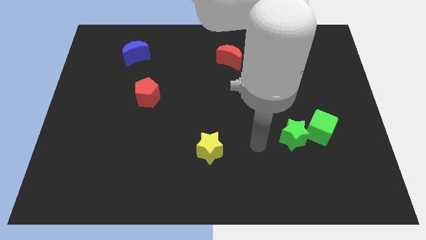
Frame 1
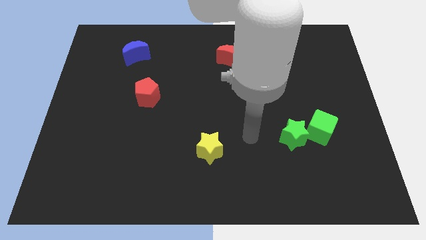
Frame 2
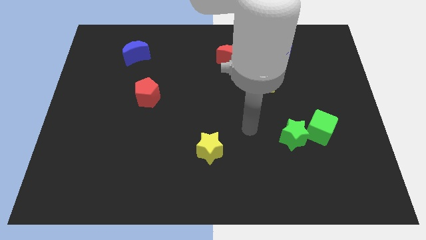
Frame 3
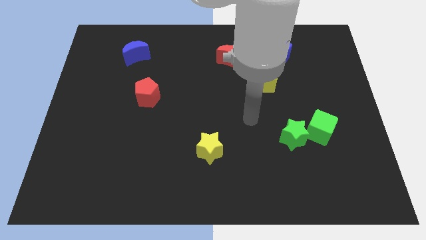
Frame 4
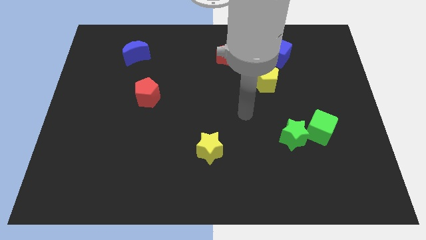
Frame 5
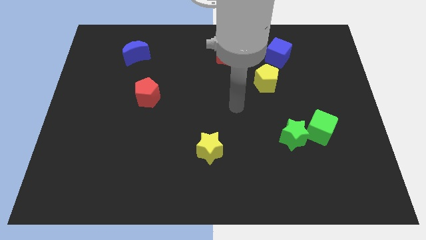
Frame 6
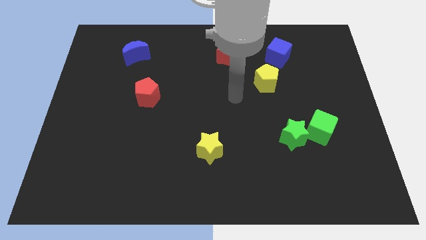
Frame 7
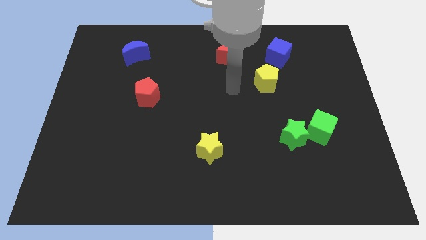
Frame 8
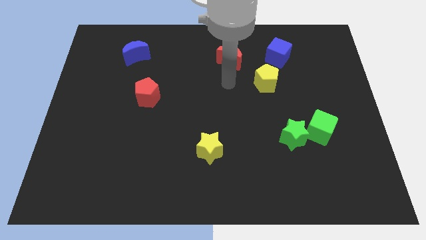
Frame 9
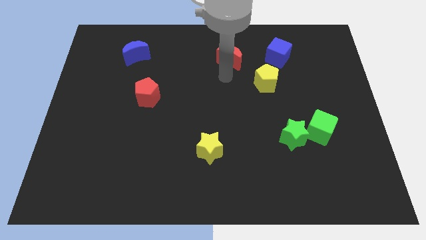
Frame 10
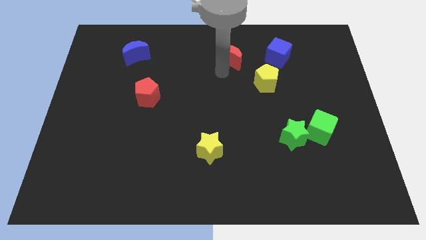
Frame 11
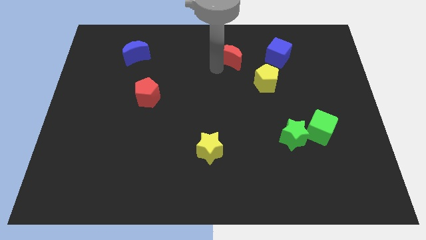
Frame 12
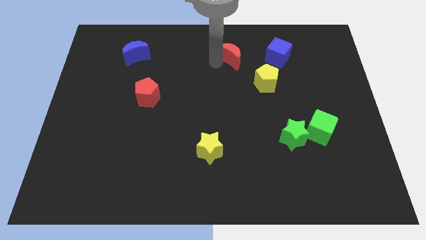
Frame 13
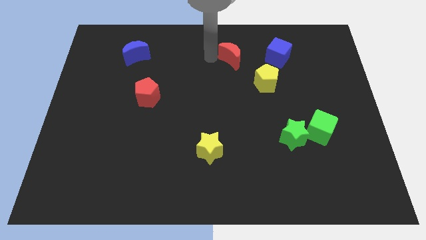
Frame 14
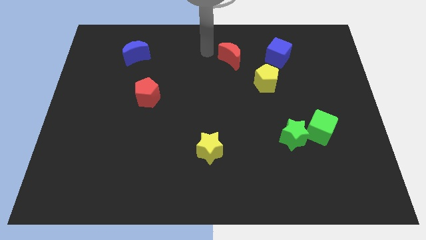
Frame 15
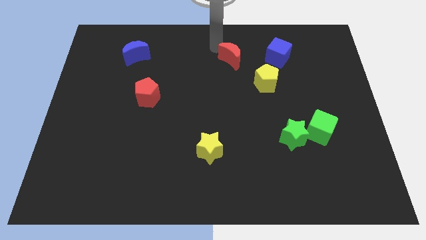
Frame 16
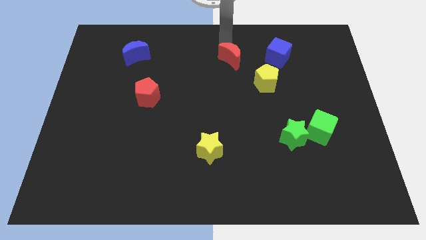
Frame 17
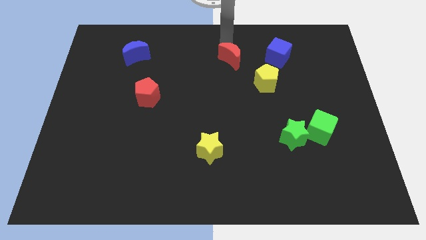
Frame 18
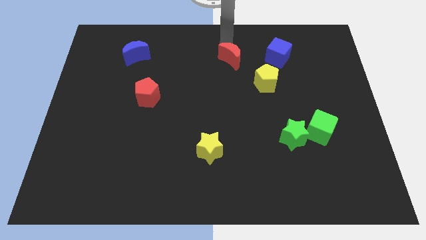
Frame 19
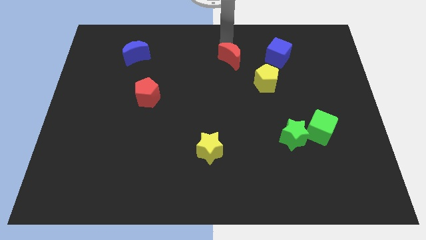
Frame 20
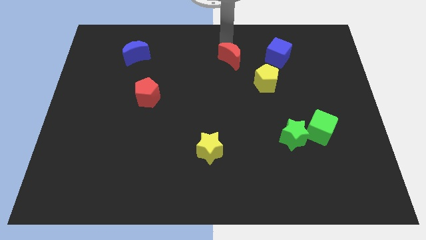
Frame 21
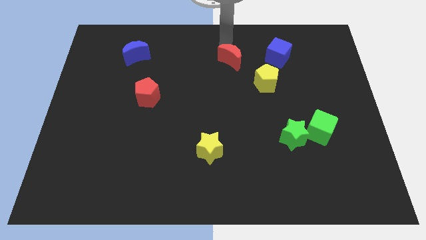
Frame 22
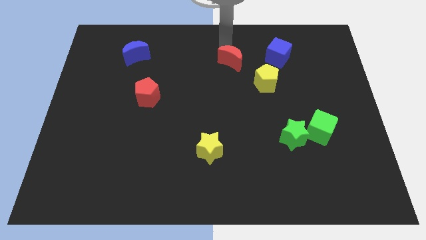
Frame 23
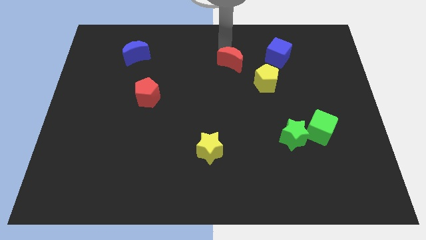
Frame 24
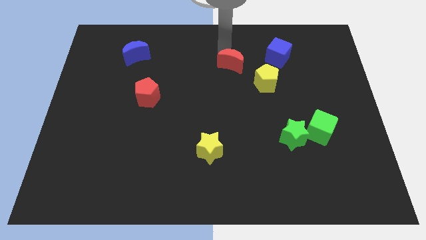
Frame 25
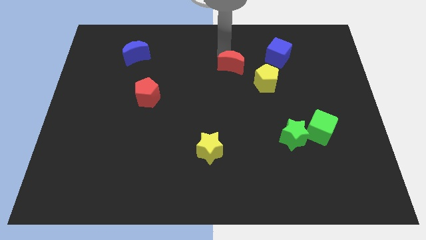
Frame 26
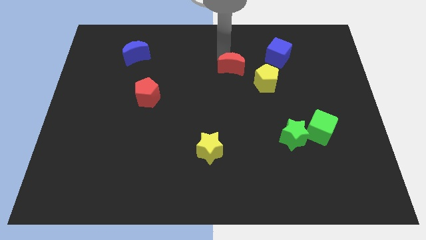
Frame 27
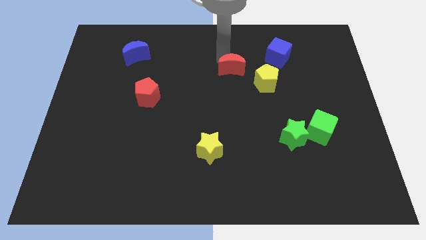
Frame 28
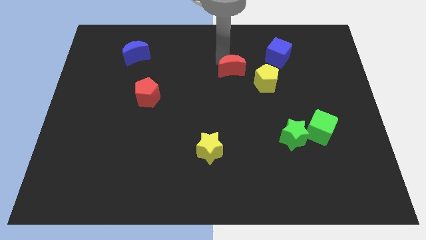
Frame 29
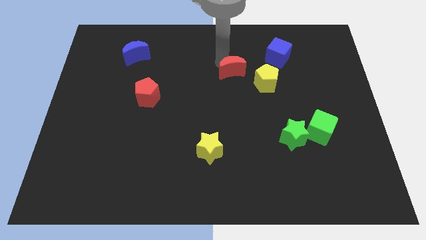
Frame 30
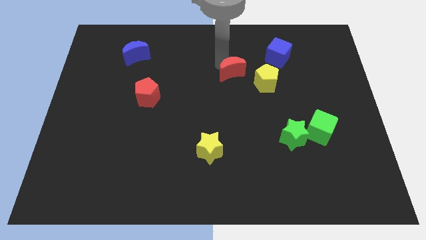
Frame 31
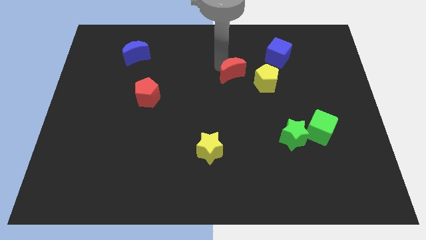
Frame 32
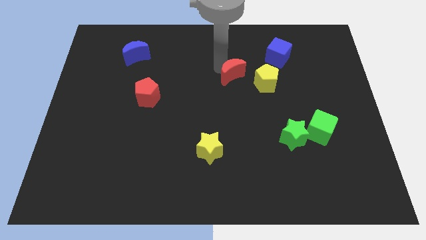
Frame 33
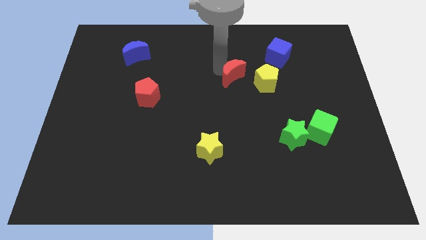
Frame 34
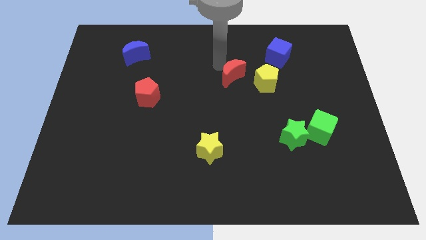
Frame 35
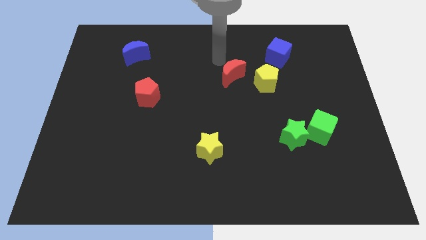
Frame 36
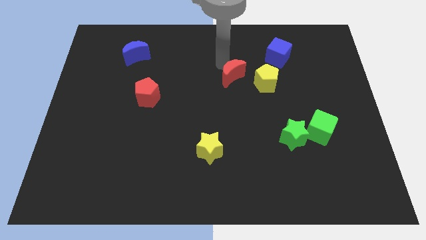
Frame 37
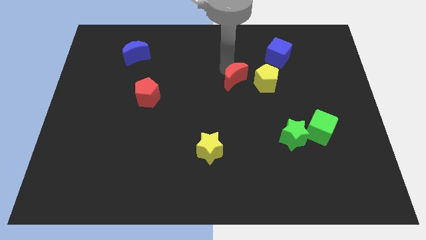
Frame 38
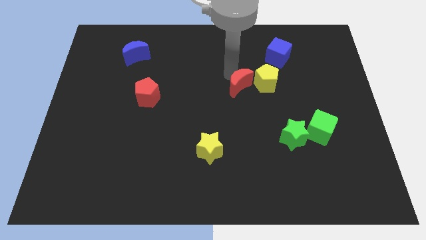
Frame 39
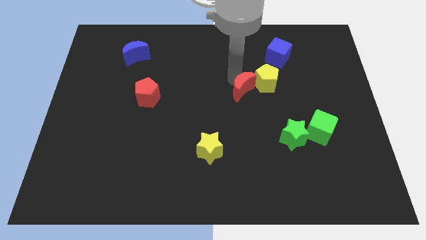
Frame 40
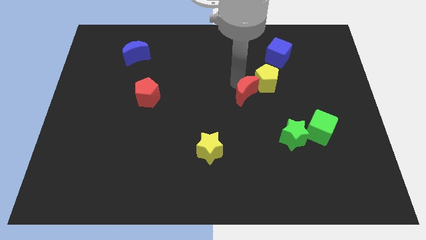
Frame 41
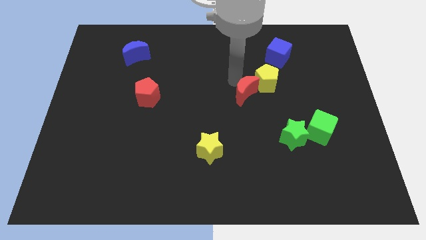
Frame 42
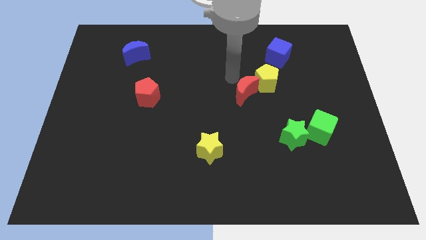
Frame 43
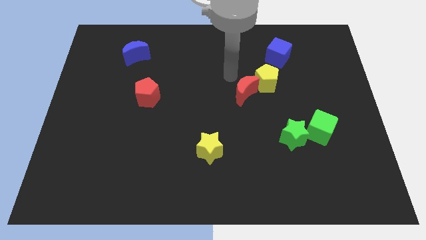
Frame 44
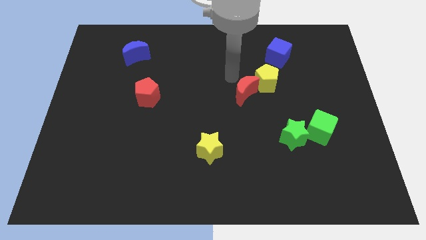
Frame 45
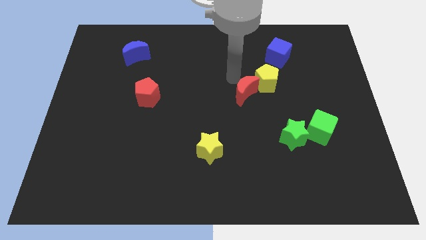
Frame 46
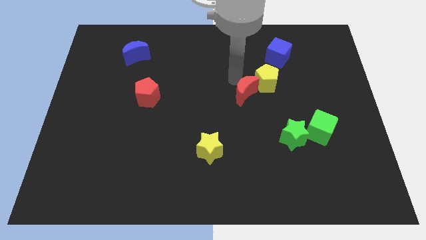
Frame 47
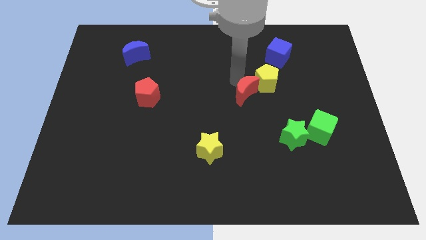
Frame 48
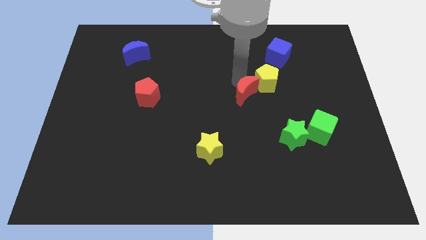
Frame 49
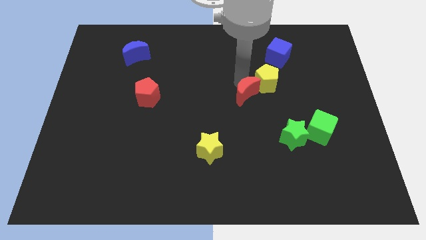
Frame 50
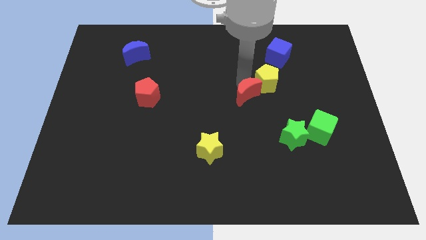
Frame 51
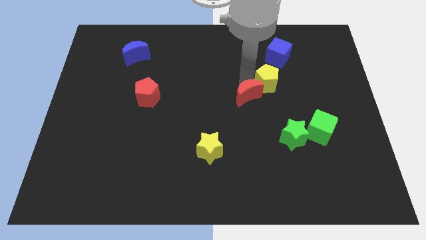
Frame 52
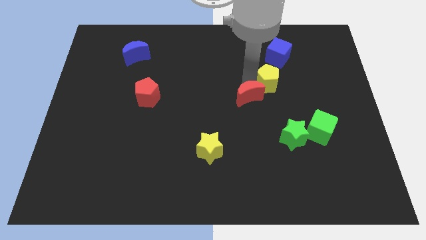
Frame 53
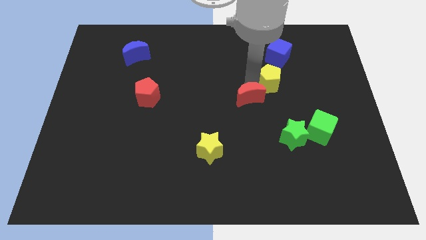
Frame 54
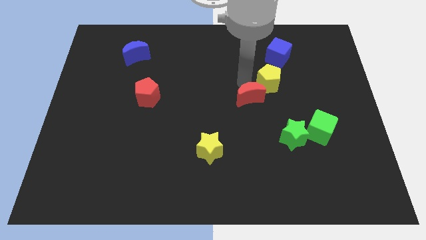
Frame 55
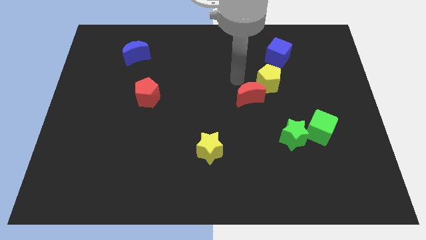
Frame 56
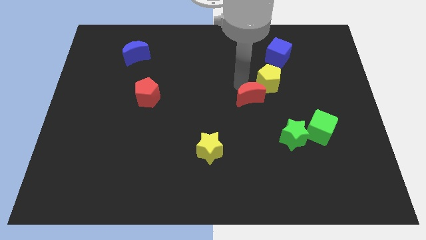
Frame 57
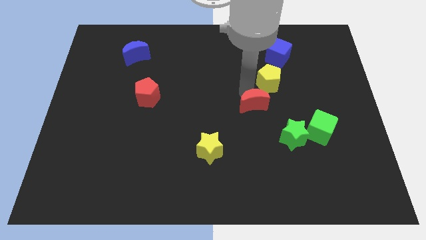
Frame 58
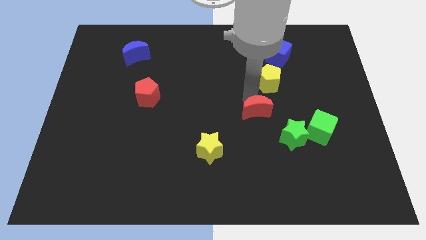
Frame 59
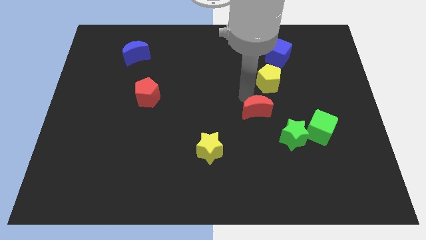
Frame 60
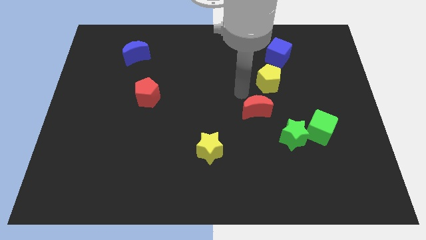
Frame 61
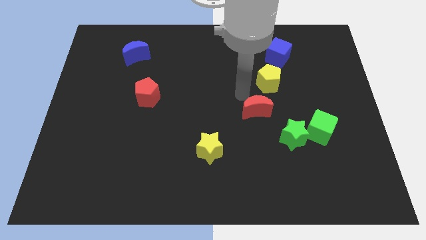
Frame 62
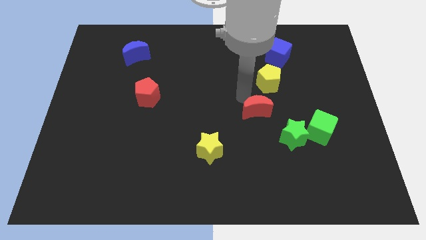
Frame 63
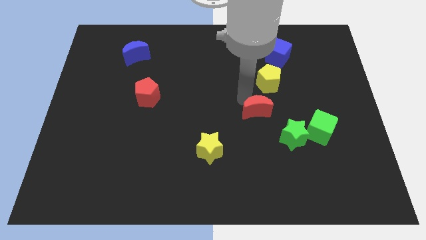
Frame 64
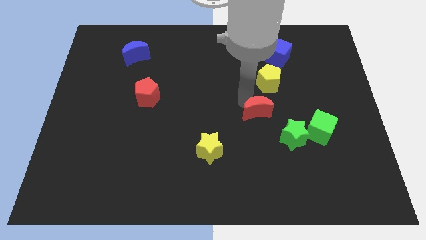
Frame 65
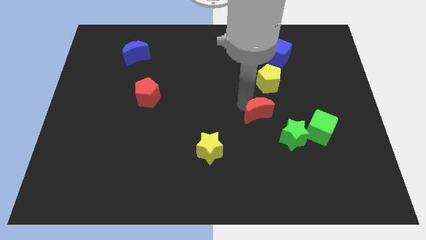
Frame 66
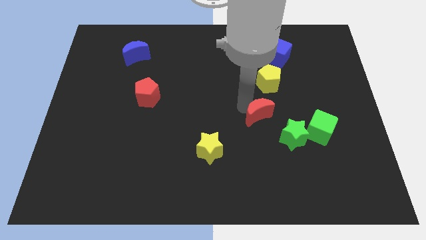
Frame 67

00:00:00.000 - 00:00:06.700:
put the red moon left of the green cube

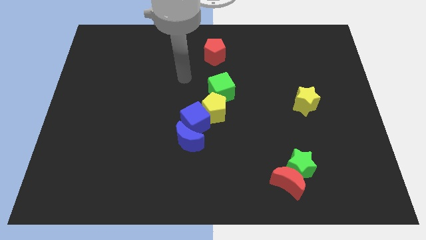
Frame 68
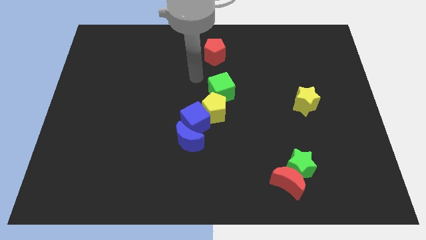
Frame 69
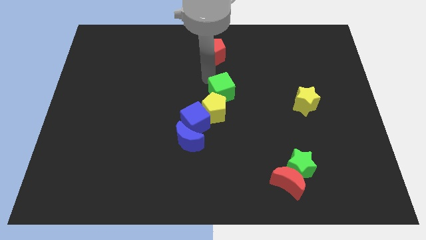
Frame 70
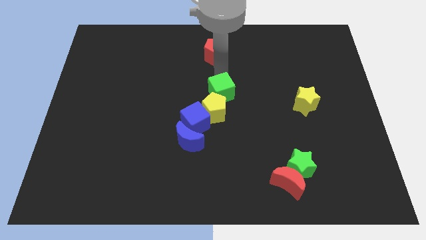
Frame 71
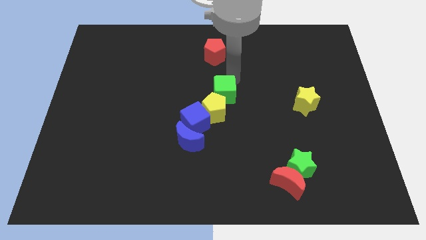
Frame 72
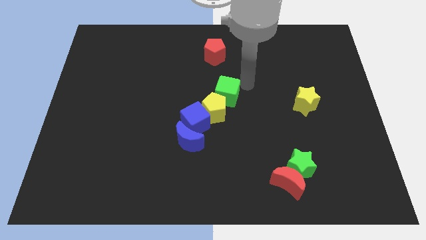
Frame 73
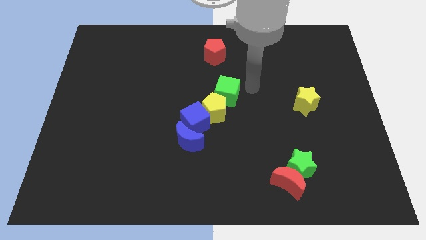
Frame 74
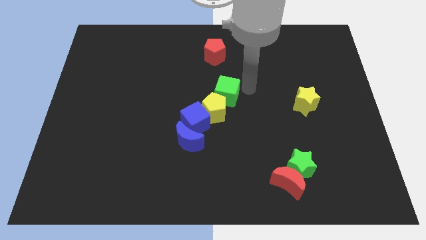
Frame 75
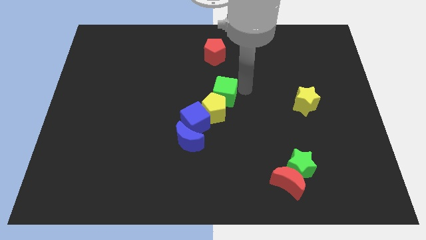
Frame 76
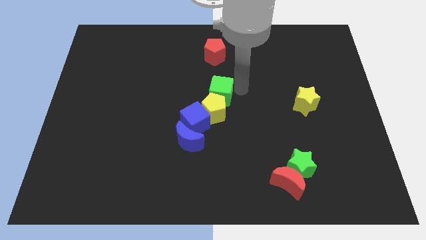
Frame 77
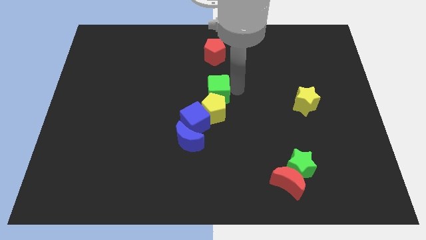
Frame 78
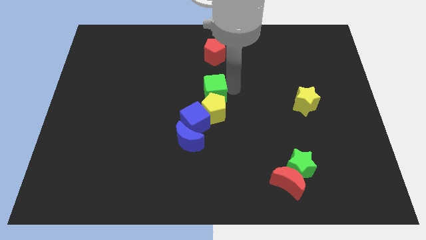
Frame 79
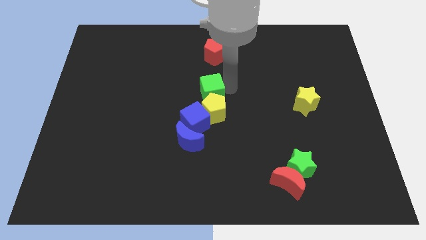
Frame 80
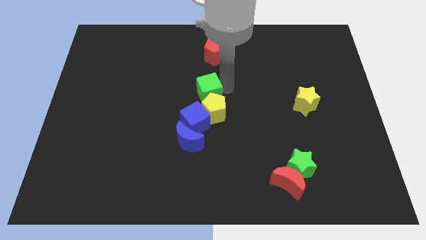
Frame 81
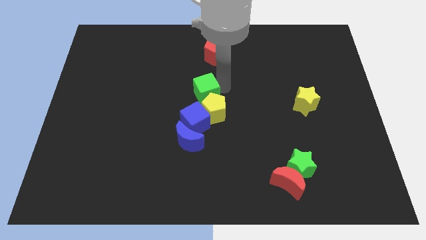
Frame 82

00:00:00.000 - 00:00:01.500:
slide the green cube above the blue moon
